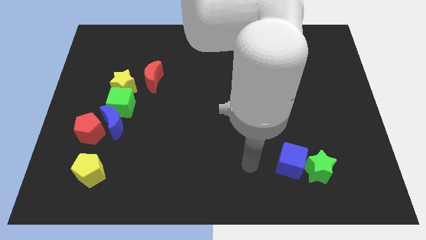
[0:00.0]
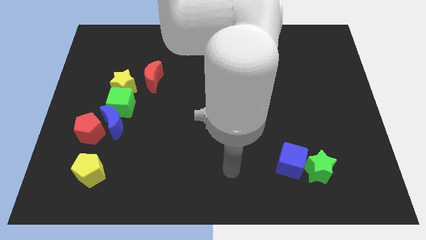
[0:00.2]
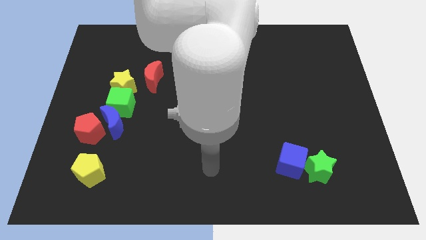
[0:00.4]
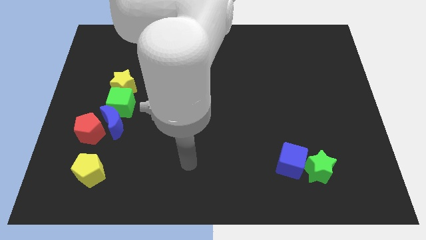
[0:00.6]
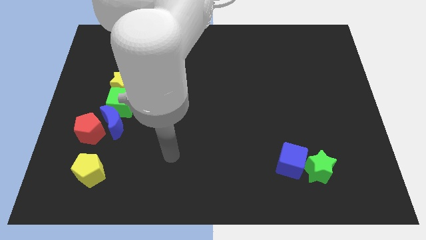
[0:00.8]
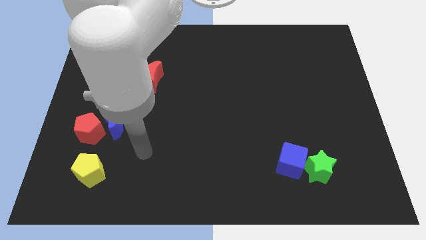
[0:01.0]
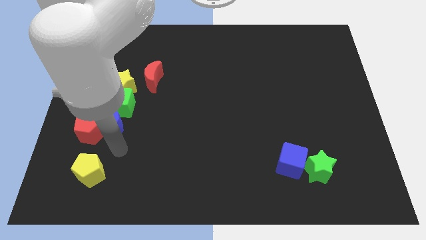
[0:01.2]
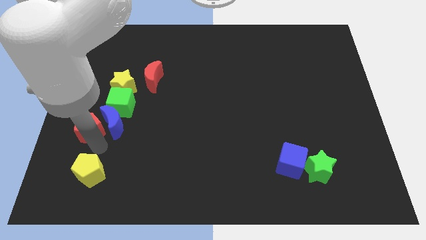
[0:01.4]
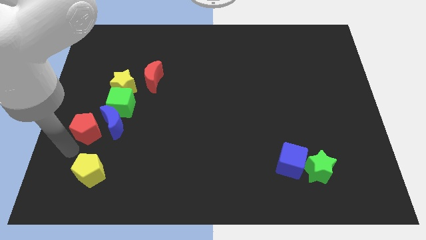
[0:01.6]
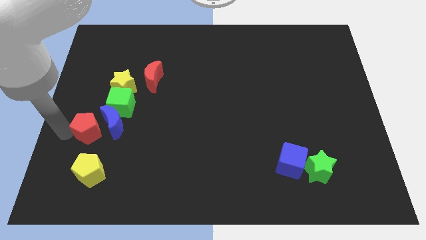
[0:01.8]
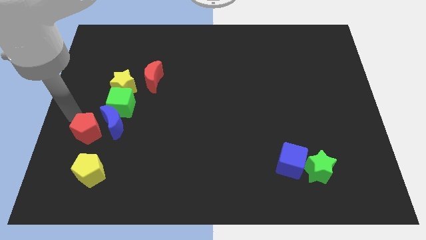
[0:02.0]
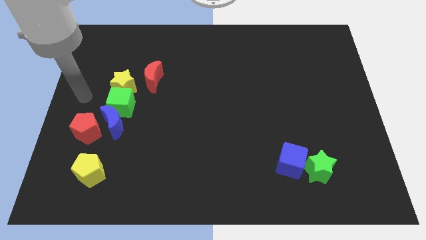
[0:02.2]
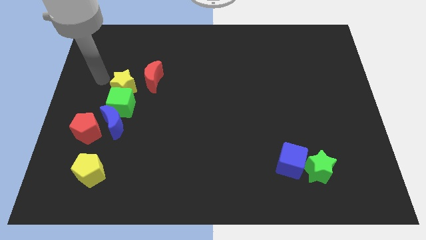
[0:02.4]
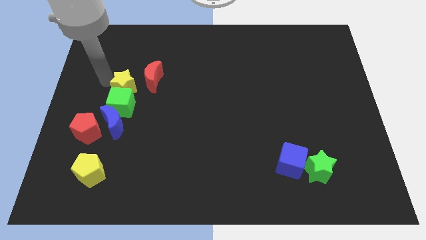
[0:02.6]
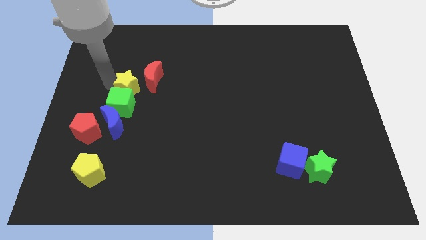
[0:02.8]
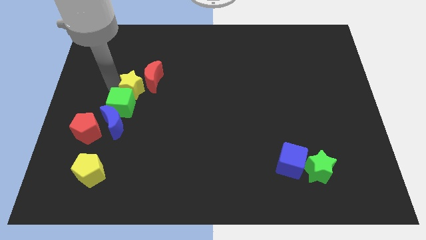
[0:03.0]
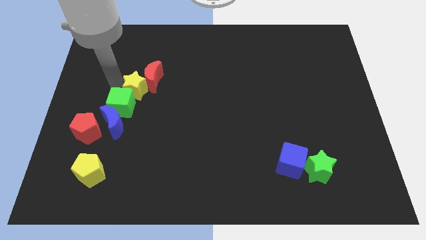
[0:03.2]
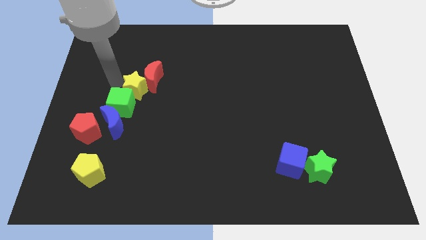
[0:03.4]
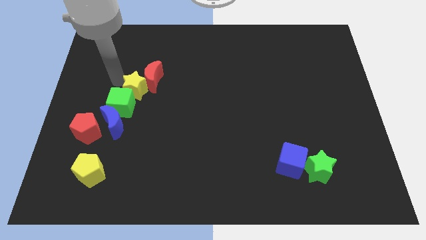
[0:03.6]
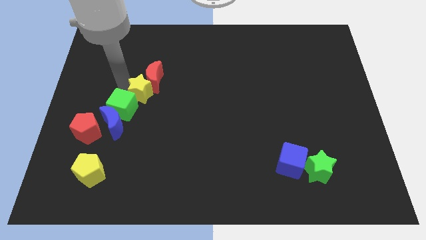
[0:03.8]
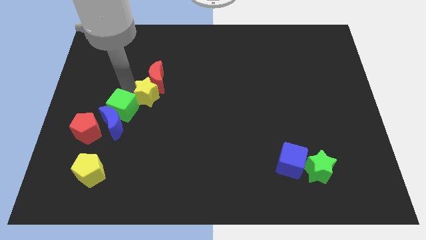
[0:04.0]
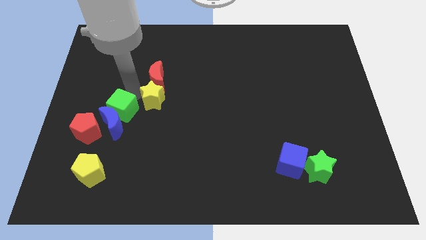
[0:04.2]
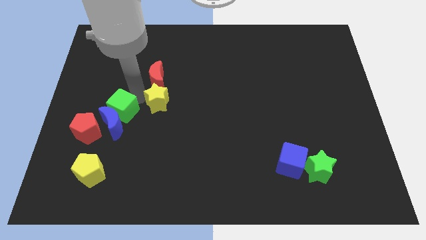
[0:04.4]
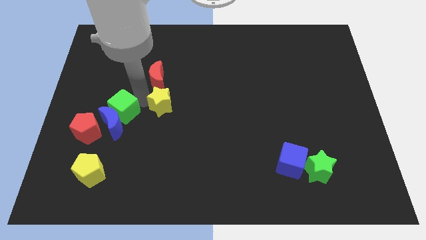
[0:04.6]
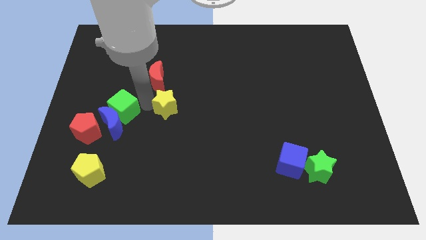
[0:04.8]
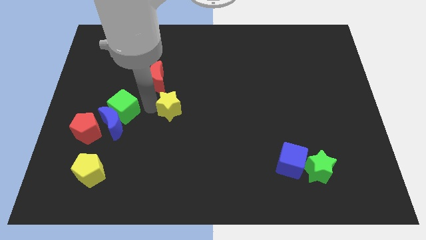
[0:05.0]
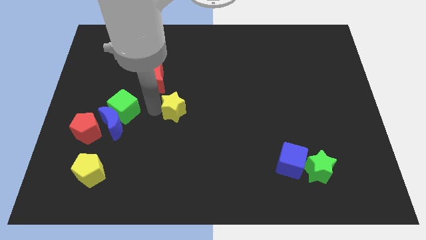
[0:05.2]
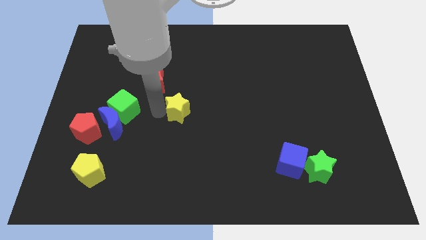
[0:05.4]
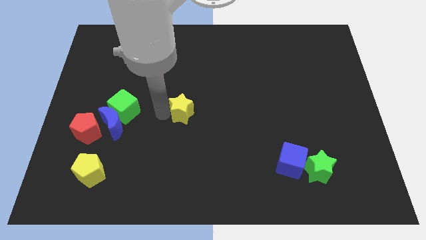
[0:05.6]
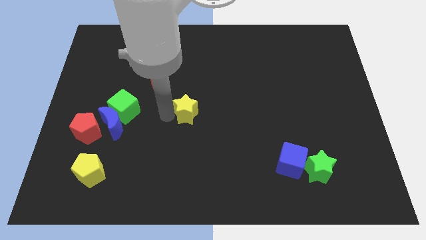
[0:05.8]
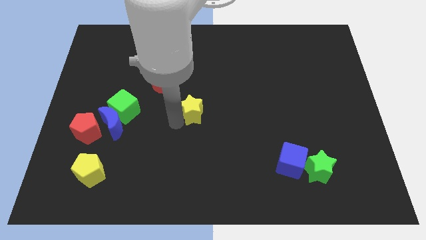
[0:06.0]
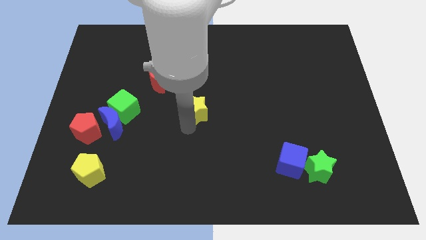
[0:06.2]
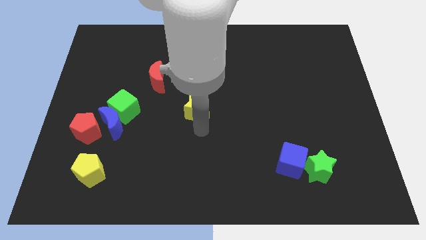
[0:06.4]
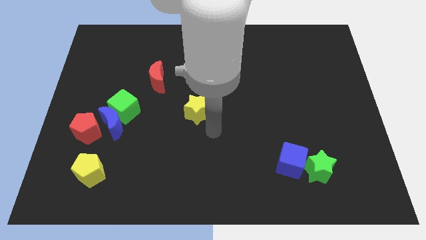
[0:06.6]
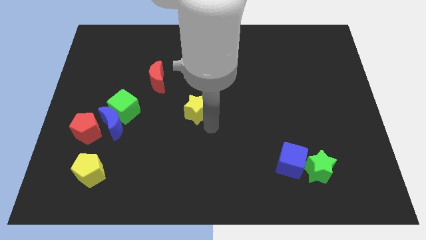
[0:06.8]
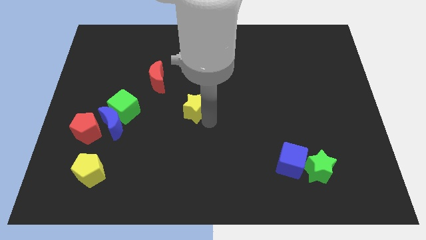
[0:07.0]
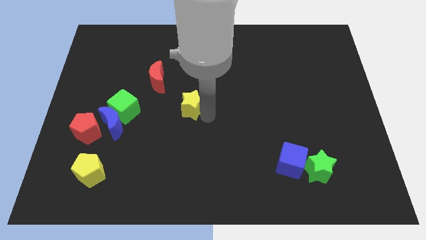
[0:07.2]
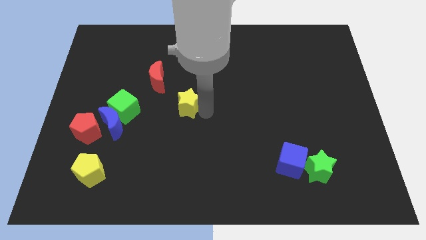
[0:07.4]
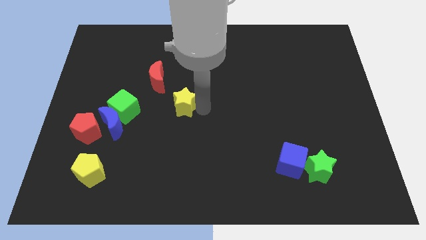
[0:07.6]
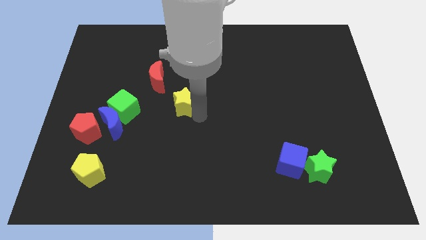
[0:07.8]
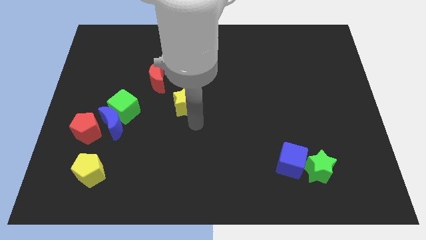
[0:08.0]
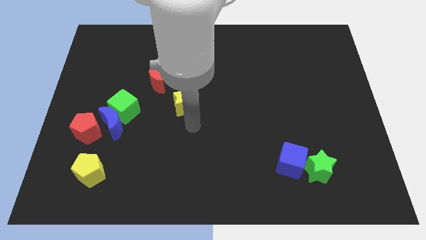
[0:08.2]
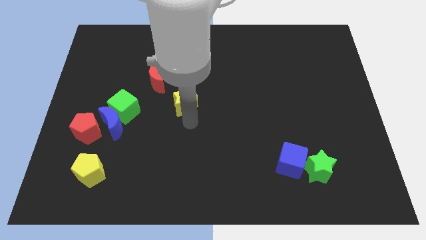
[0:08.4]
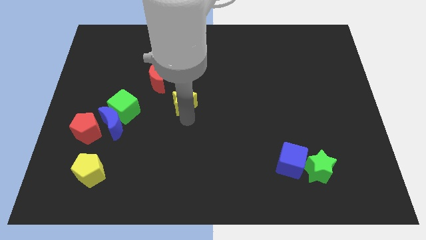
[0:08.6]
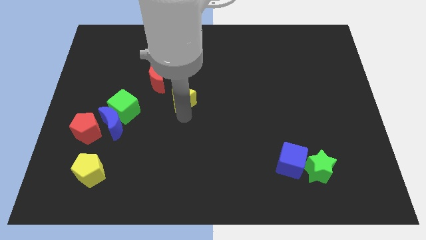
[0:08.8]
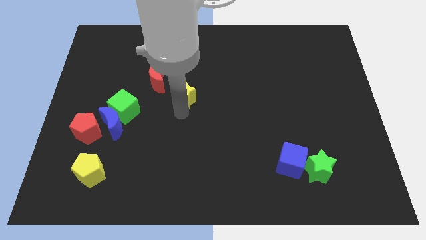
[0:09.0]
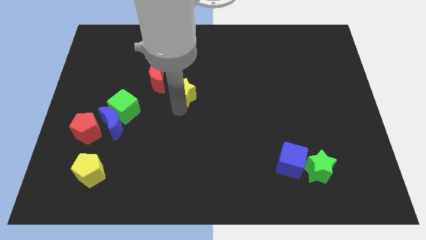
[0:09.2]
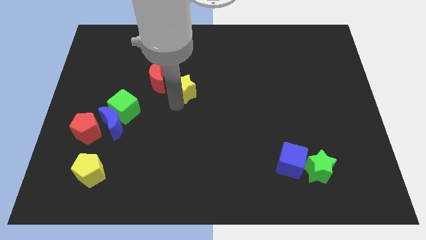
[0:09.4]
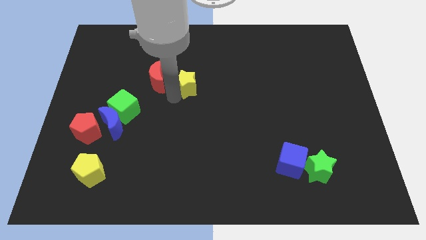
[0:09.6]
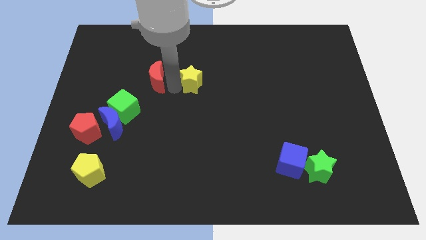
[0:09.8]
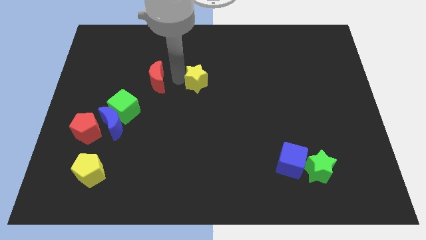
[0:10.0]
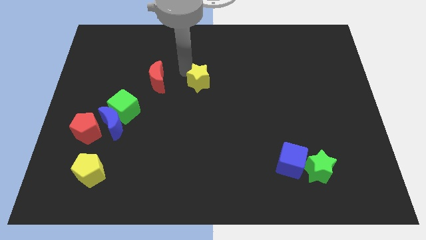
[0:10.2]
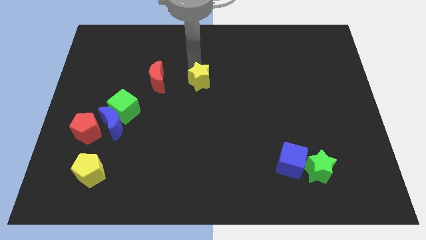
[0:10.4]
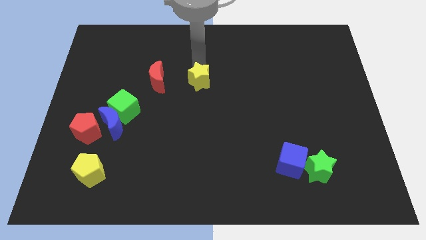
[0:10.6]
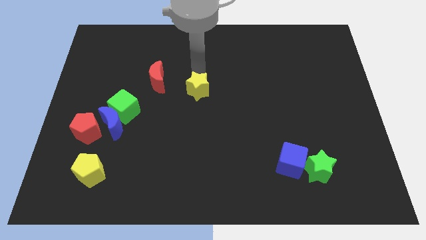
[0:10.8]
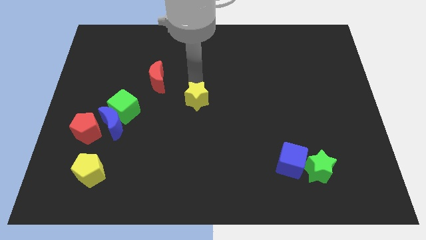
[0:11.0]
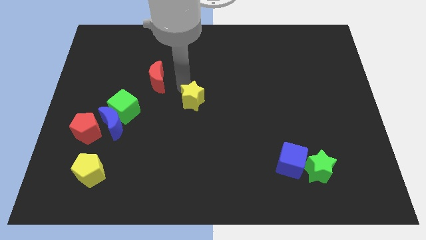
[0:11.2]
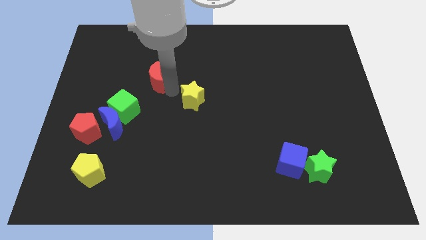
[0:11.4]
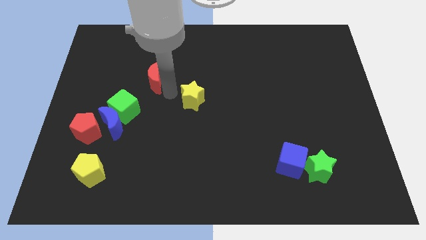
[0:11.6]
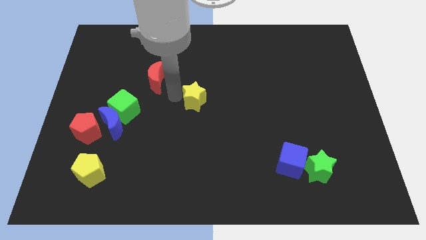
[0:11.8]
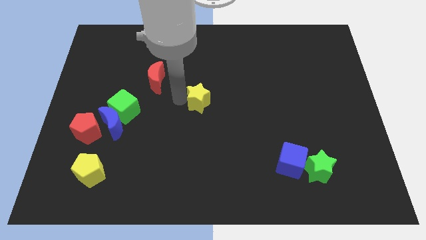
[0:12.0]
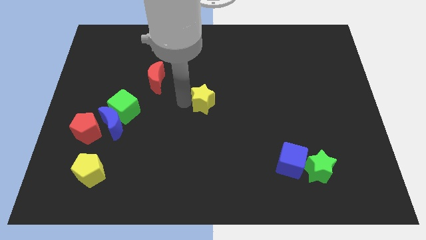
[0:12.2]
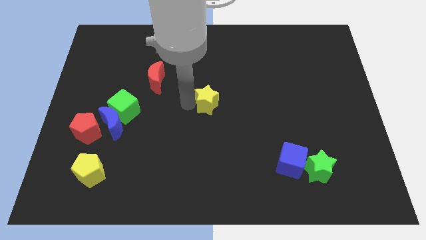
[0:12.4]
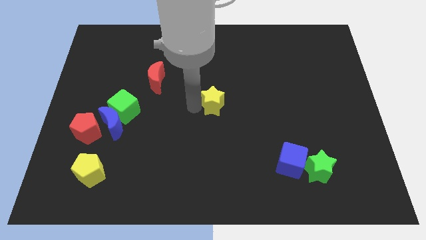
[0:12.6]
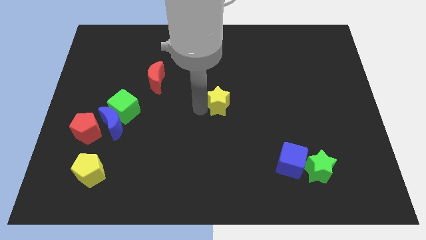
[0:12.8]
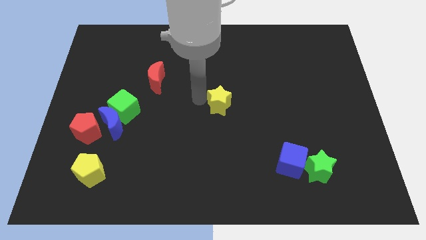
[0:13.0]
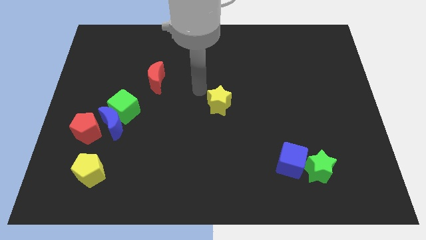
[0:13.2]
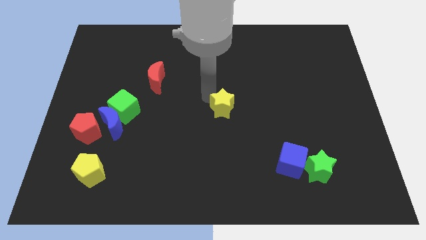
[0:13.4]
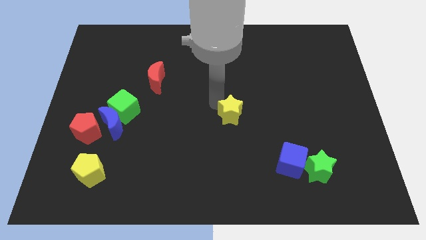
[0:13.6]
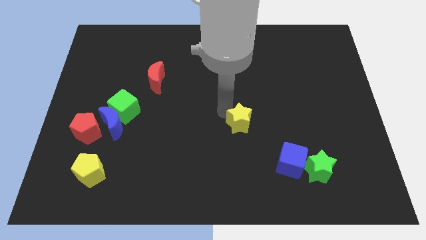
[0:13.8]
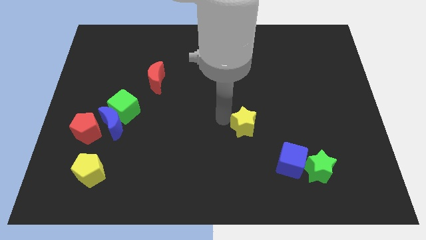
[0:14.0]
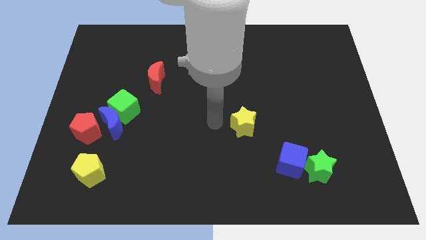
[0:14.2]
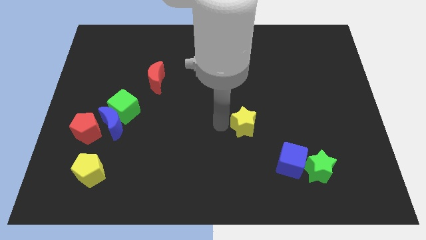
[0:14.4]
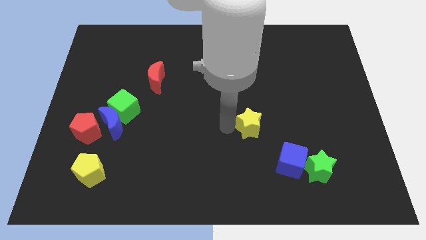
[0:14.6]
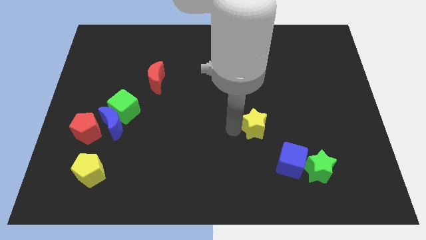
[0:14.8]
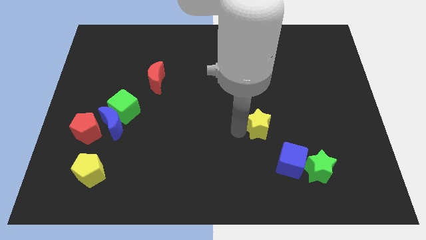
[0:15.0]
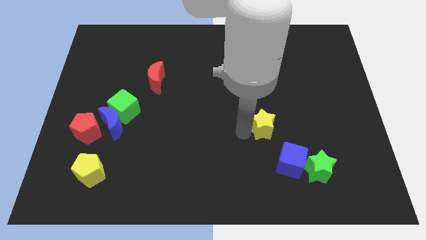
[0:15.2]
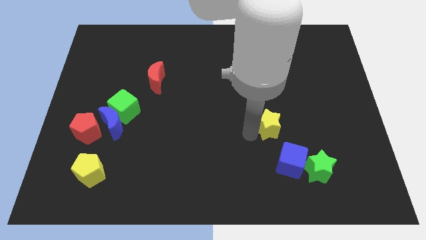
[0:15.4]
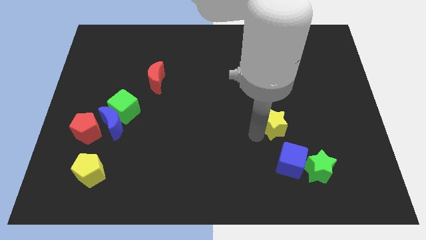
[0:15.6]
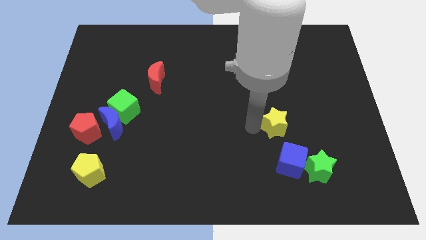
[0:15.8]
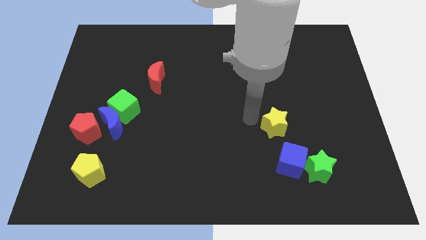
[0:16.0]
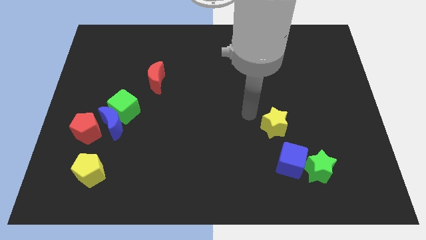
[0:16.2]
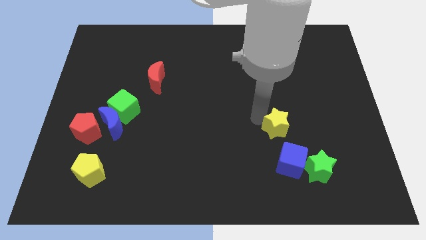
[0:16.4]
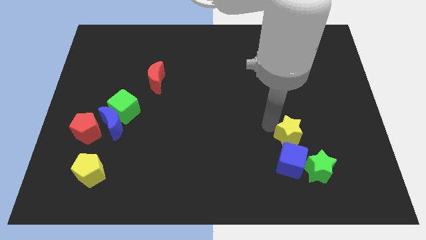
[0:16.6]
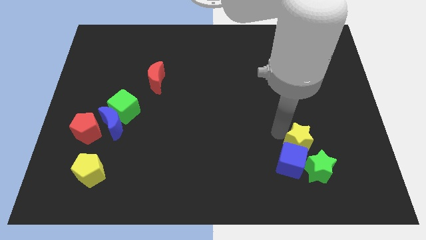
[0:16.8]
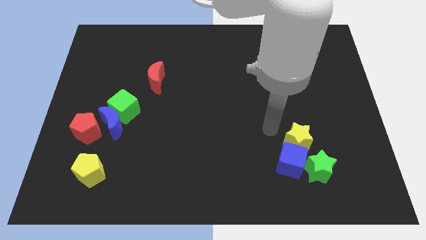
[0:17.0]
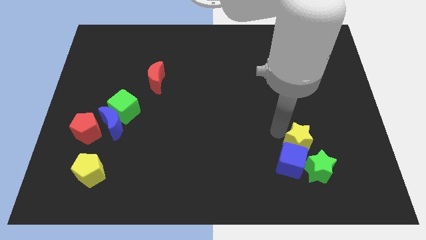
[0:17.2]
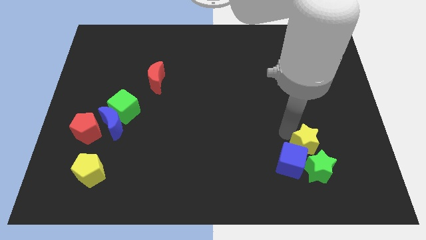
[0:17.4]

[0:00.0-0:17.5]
slide the yellow star just right of the blue cube
